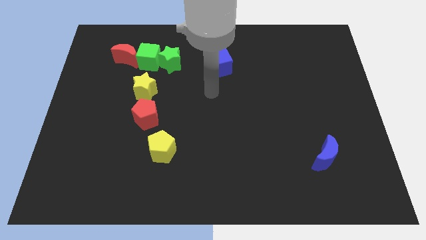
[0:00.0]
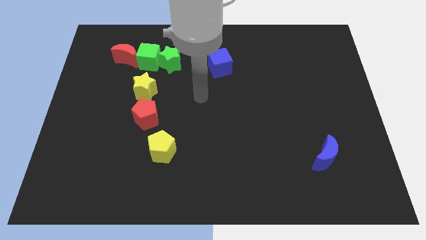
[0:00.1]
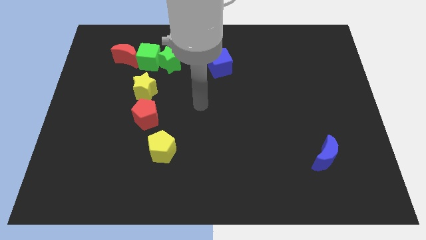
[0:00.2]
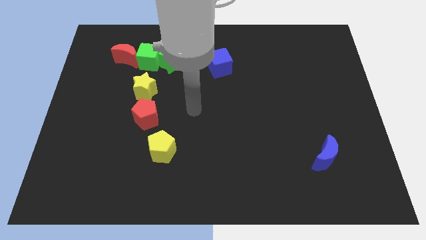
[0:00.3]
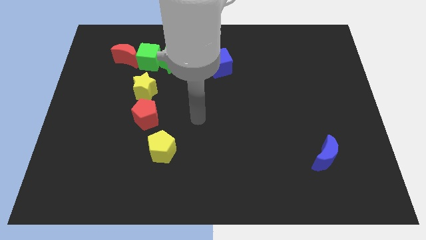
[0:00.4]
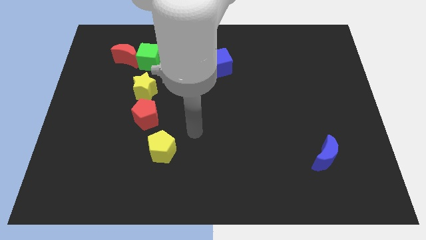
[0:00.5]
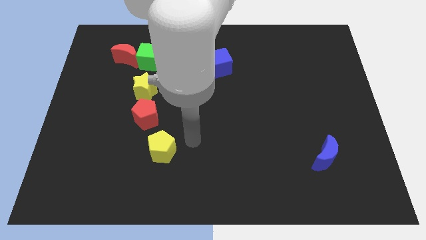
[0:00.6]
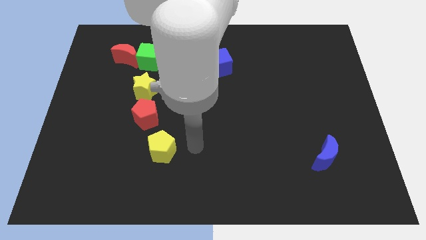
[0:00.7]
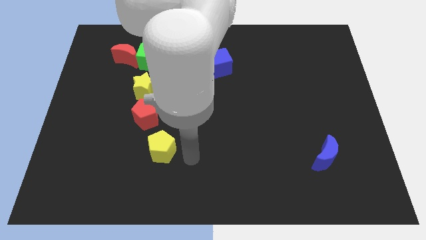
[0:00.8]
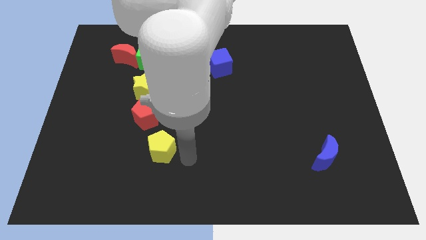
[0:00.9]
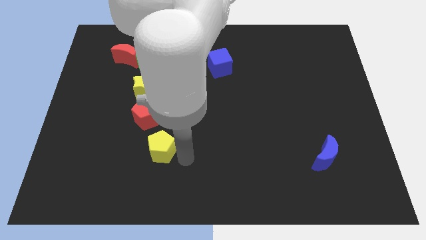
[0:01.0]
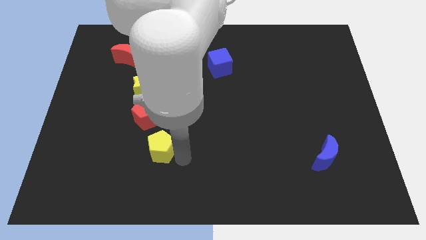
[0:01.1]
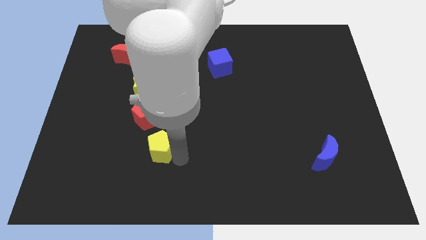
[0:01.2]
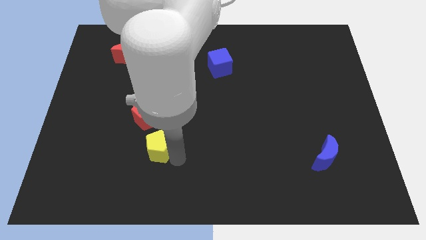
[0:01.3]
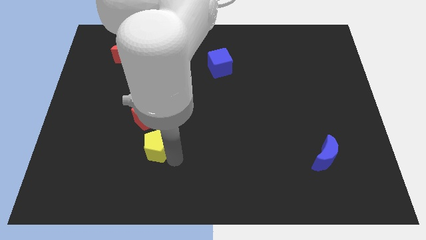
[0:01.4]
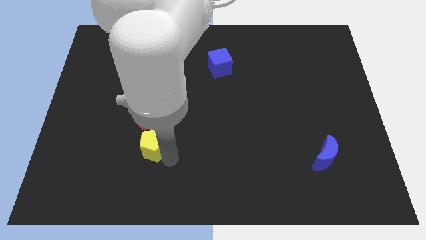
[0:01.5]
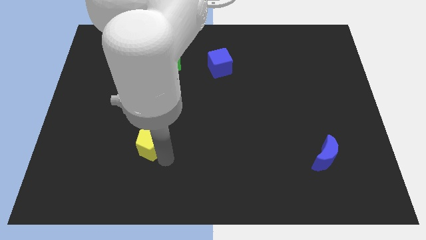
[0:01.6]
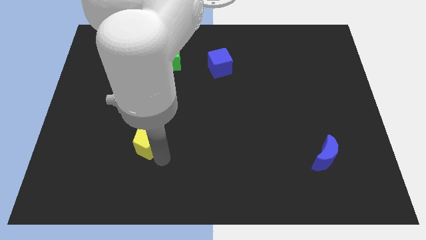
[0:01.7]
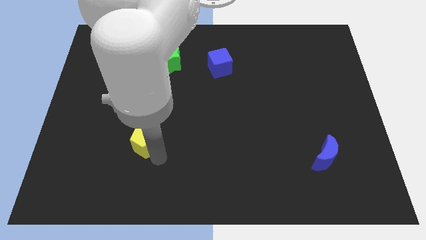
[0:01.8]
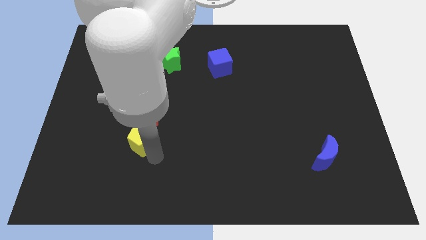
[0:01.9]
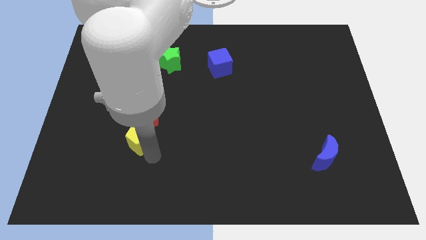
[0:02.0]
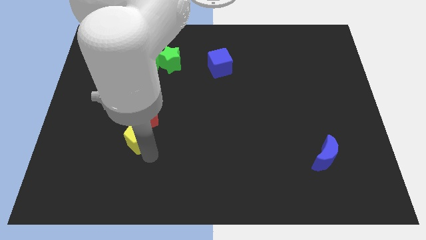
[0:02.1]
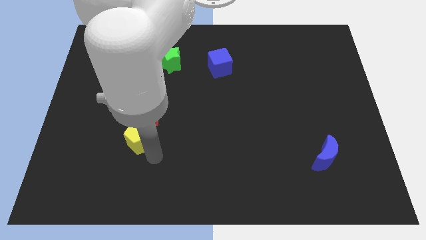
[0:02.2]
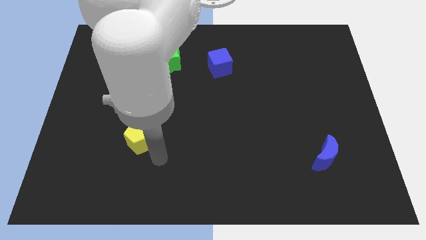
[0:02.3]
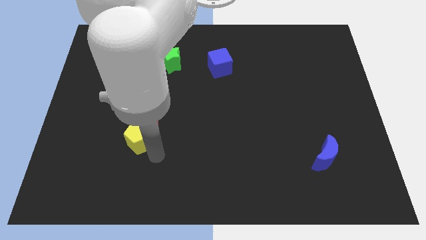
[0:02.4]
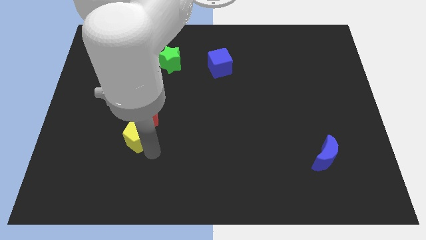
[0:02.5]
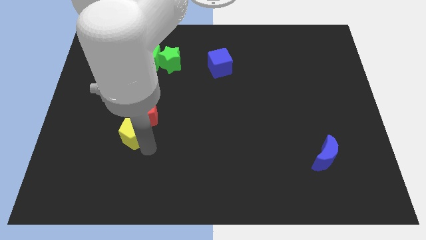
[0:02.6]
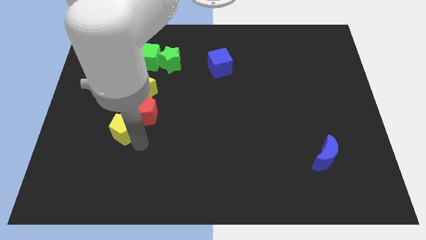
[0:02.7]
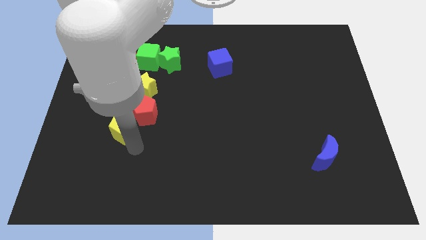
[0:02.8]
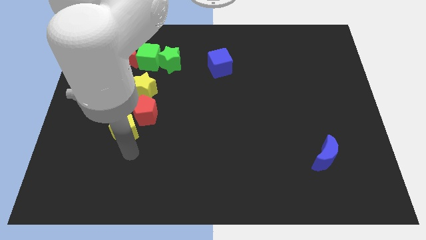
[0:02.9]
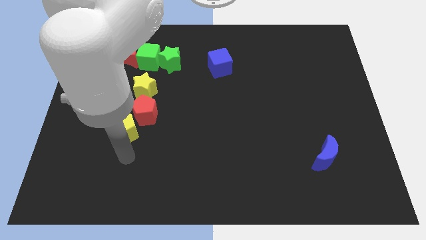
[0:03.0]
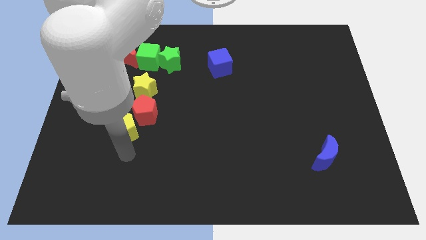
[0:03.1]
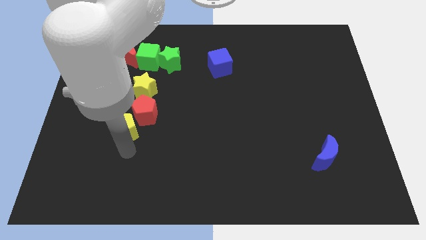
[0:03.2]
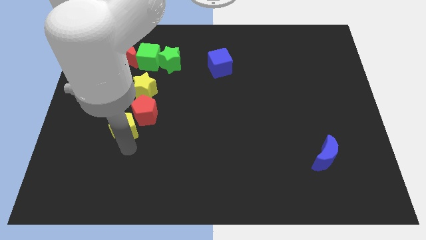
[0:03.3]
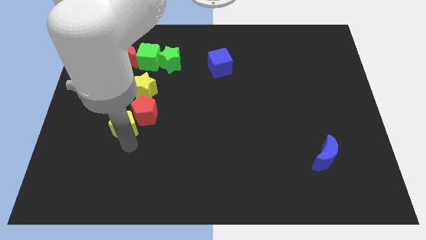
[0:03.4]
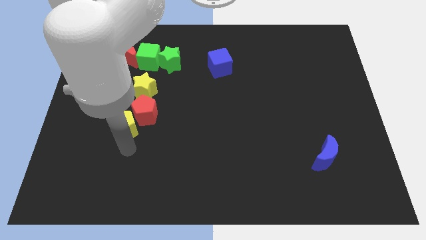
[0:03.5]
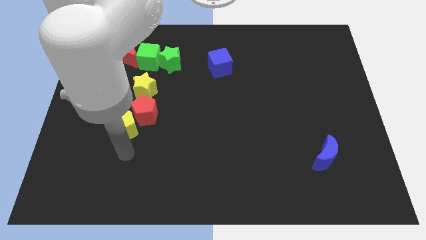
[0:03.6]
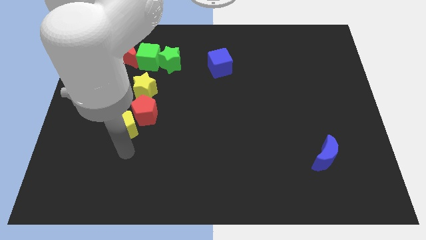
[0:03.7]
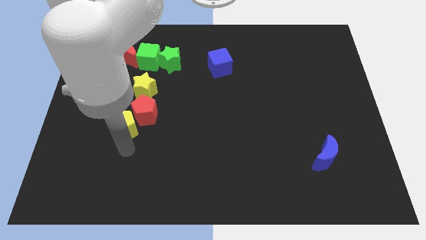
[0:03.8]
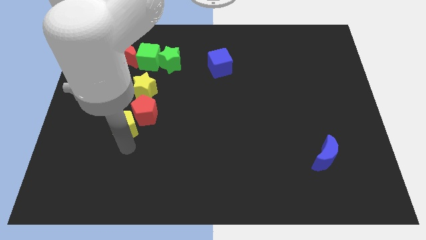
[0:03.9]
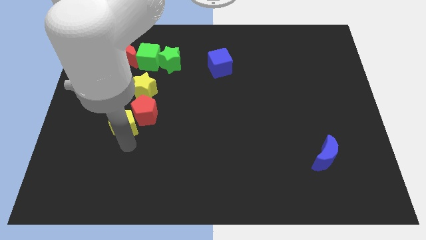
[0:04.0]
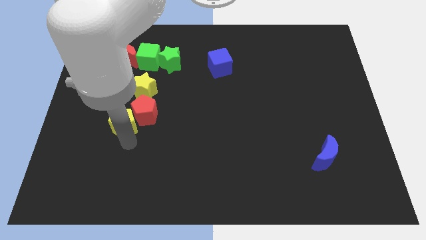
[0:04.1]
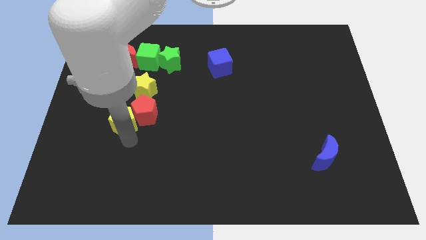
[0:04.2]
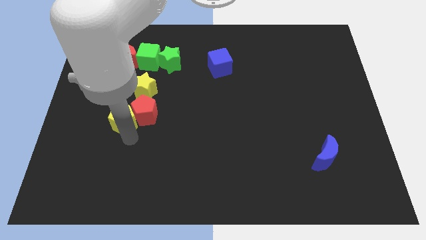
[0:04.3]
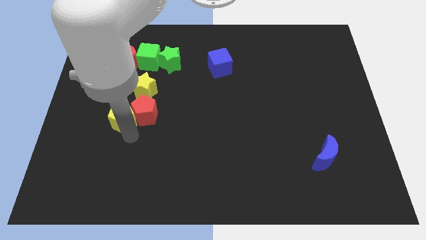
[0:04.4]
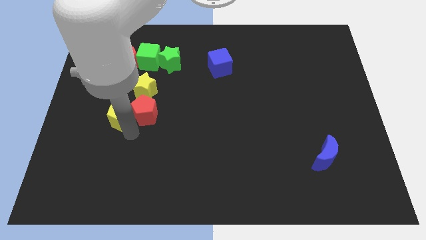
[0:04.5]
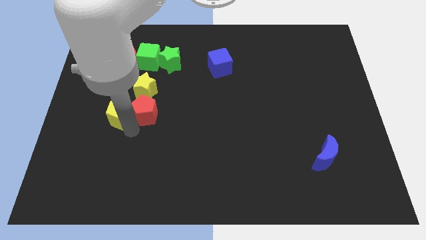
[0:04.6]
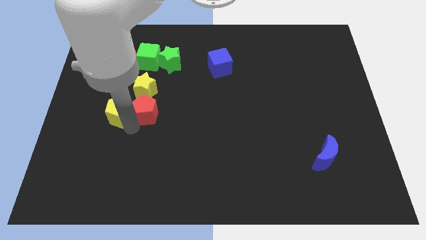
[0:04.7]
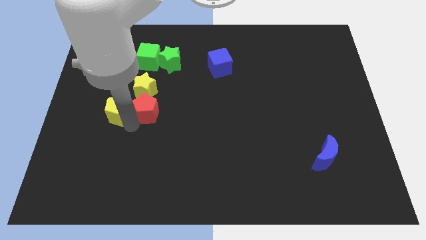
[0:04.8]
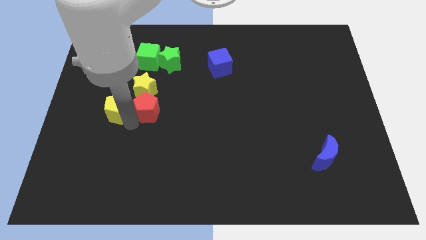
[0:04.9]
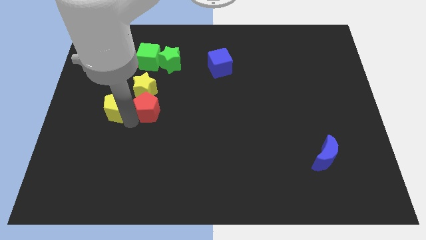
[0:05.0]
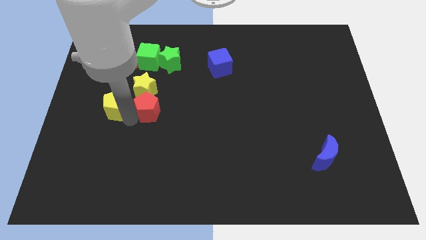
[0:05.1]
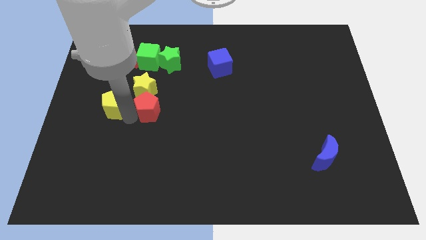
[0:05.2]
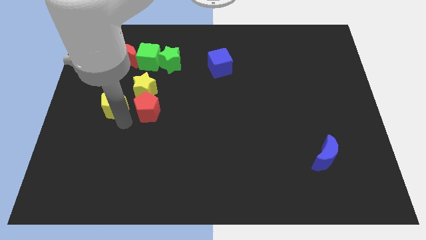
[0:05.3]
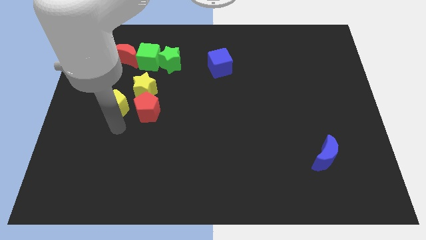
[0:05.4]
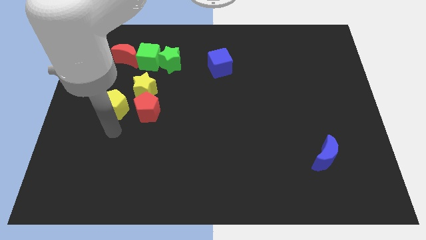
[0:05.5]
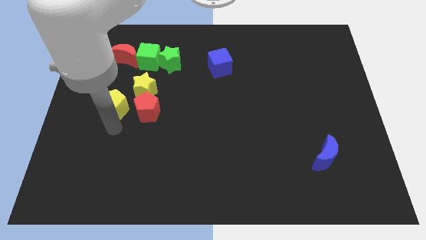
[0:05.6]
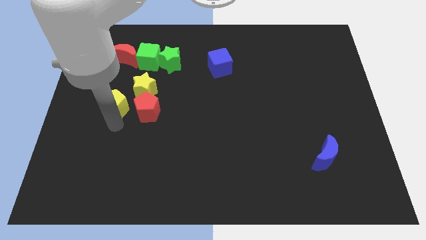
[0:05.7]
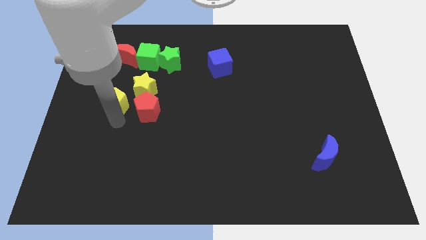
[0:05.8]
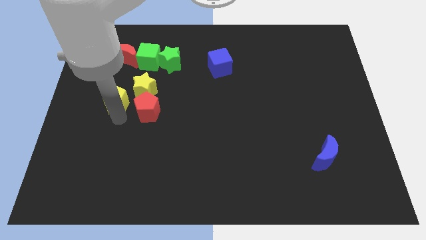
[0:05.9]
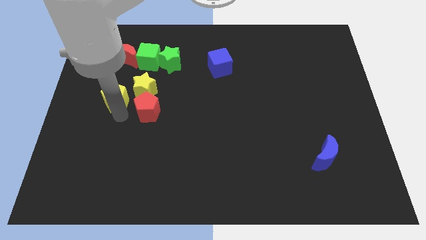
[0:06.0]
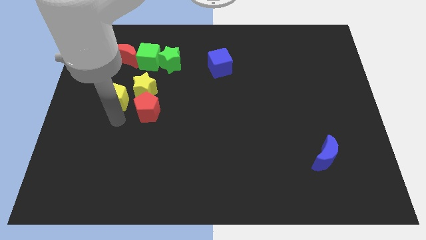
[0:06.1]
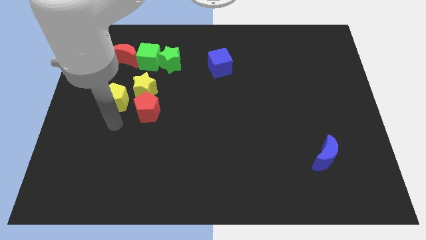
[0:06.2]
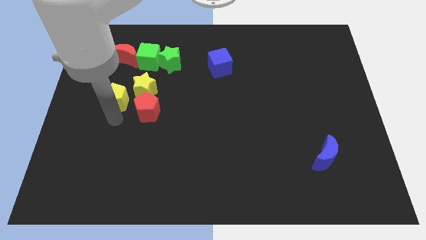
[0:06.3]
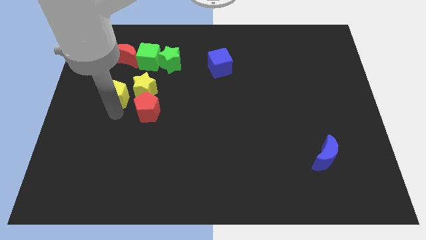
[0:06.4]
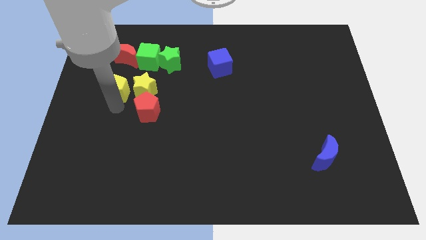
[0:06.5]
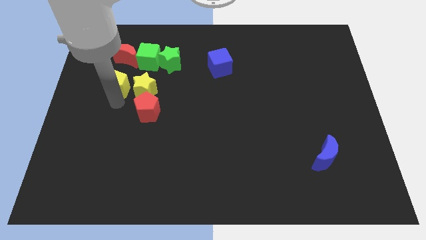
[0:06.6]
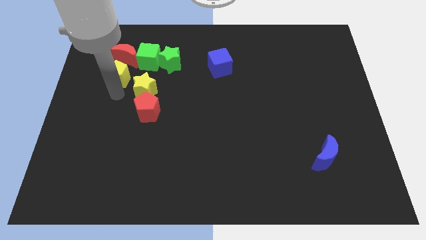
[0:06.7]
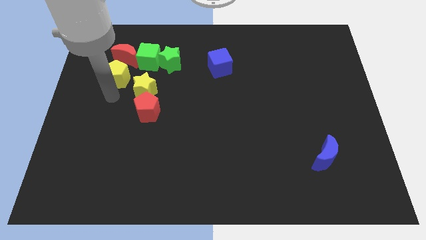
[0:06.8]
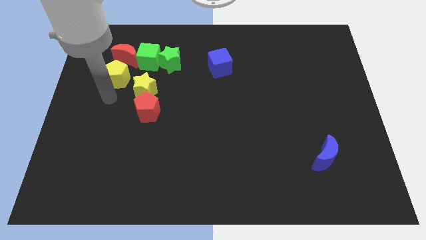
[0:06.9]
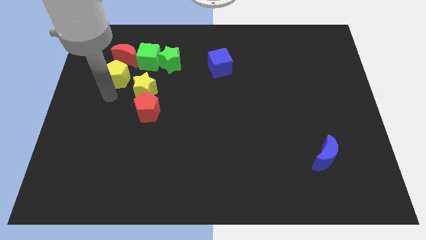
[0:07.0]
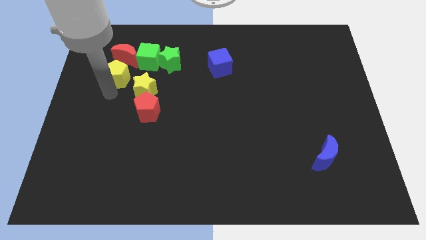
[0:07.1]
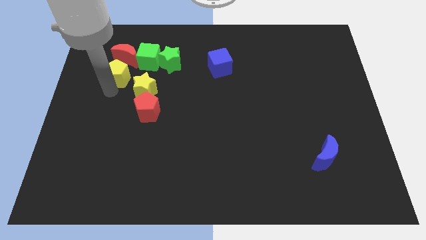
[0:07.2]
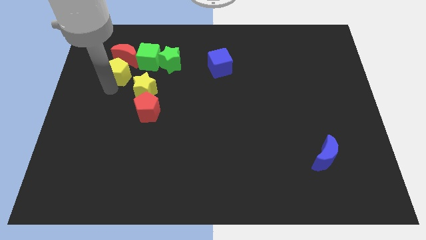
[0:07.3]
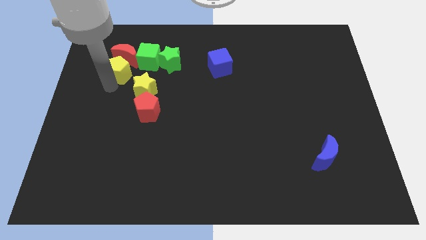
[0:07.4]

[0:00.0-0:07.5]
move the yellow pentagon close to the red moon
